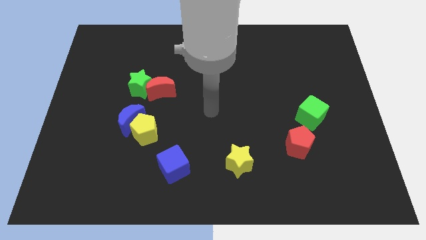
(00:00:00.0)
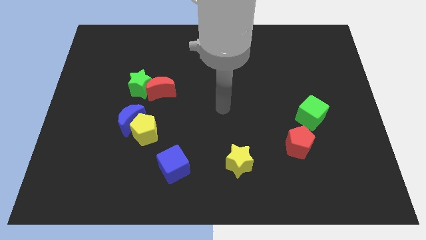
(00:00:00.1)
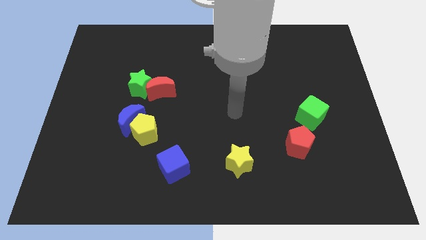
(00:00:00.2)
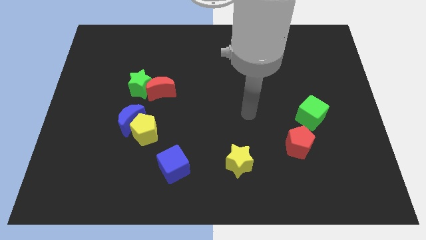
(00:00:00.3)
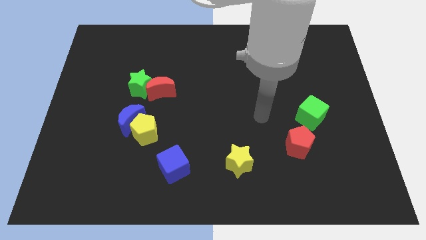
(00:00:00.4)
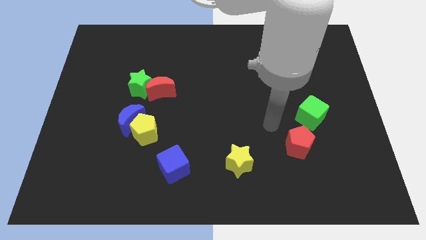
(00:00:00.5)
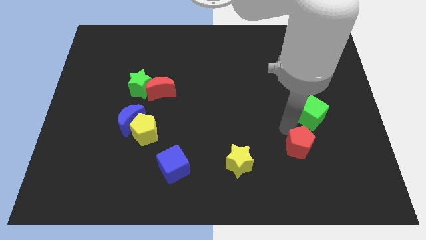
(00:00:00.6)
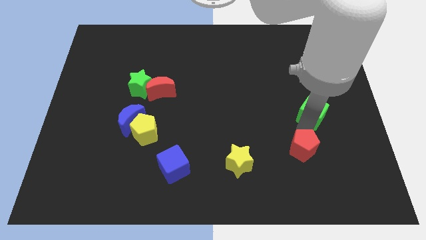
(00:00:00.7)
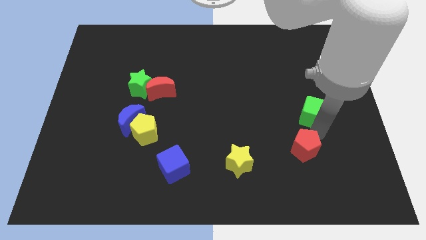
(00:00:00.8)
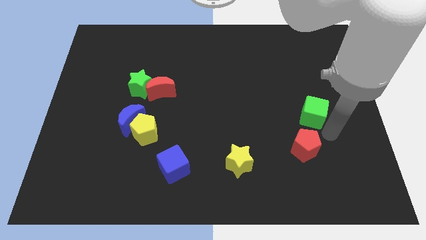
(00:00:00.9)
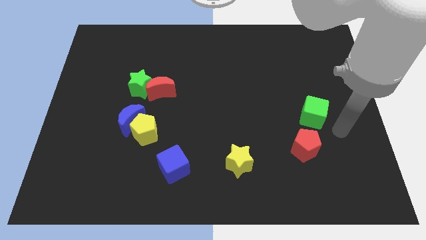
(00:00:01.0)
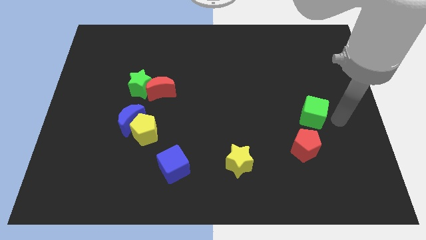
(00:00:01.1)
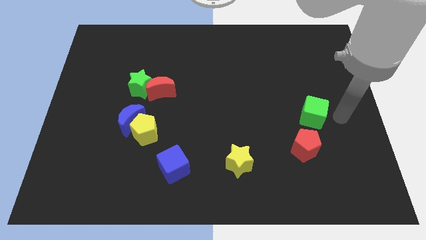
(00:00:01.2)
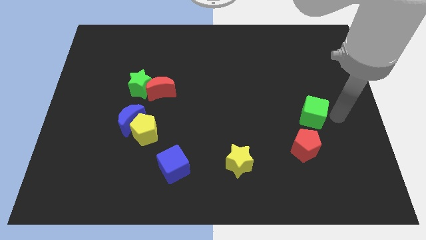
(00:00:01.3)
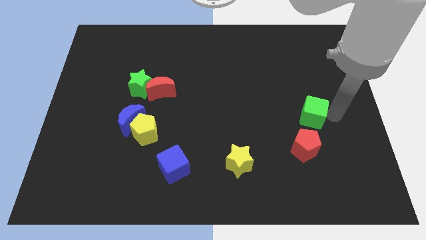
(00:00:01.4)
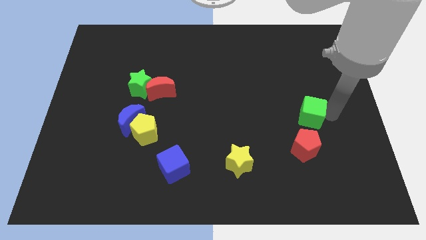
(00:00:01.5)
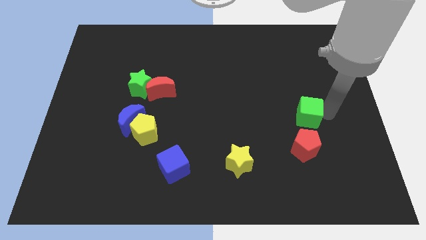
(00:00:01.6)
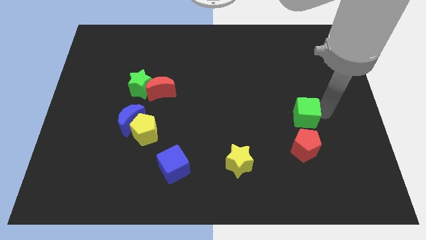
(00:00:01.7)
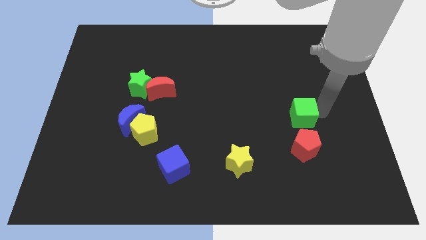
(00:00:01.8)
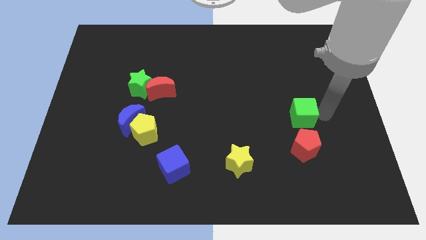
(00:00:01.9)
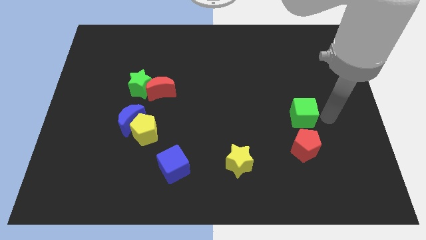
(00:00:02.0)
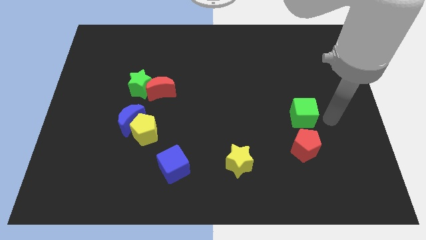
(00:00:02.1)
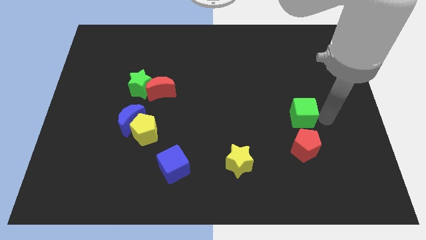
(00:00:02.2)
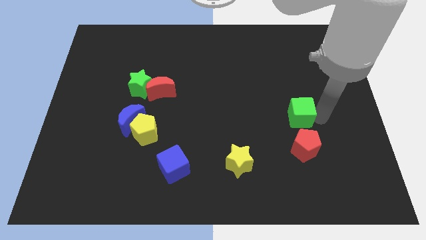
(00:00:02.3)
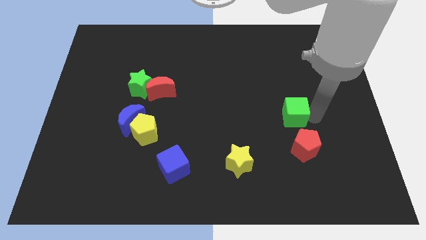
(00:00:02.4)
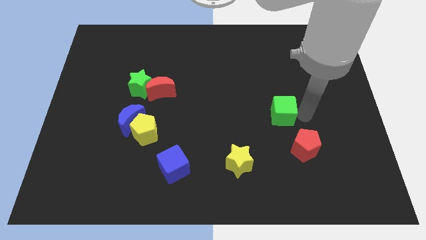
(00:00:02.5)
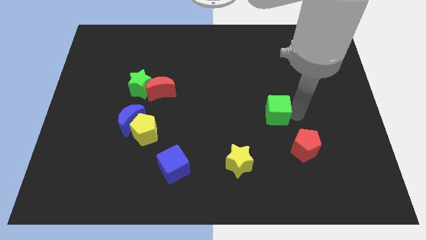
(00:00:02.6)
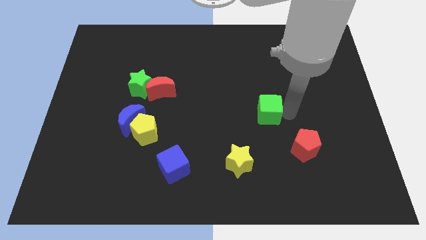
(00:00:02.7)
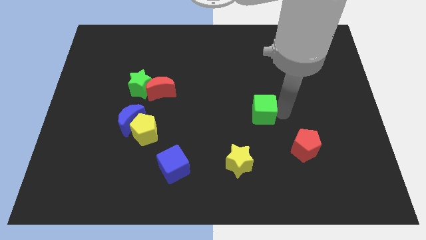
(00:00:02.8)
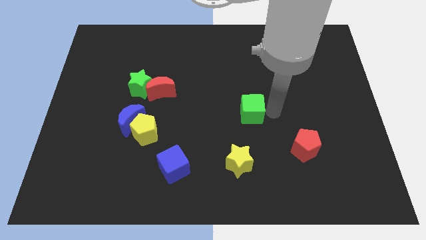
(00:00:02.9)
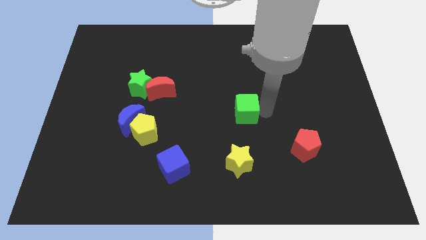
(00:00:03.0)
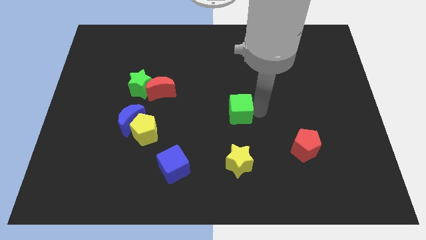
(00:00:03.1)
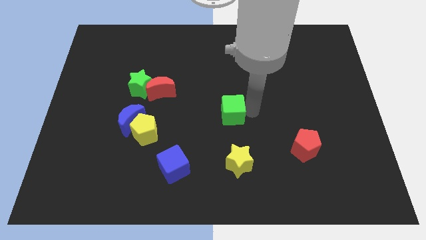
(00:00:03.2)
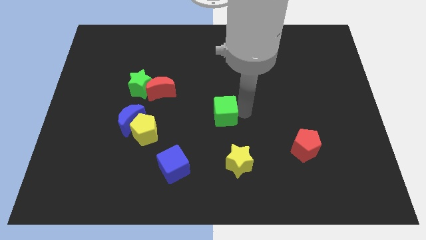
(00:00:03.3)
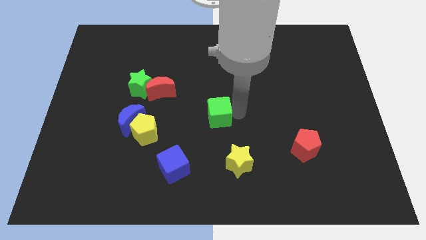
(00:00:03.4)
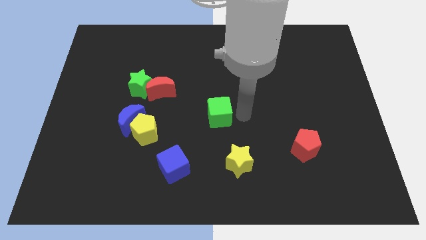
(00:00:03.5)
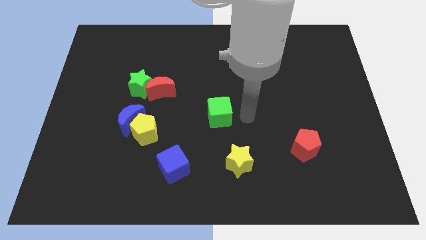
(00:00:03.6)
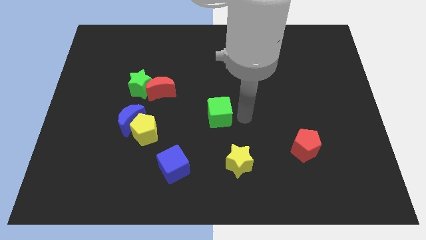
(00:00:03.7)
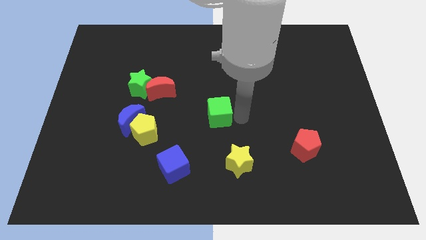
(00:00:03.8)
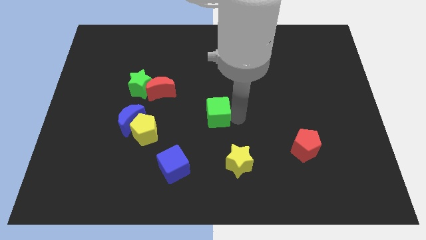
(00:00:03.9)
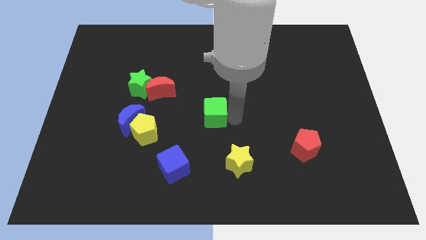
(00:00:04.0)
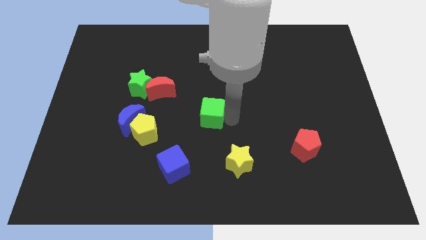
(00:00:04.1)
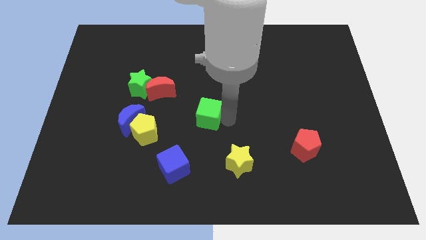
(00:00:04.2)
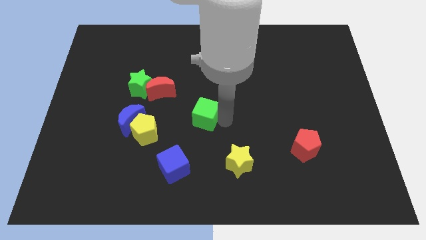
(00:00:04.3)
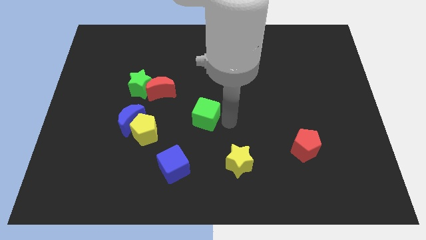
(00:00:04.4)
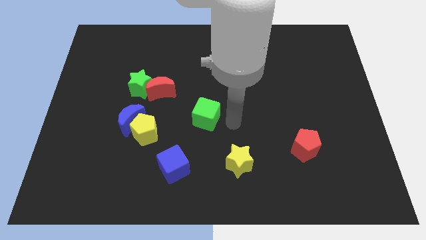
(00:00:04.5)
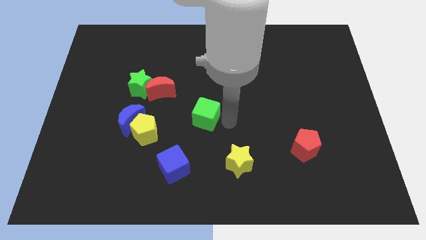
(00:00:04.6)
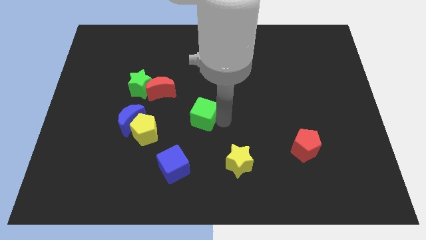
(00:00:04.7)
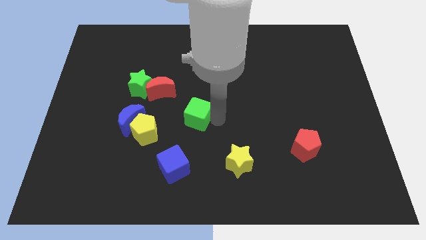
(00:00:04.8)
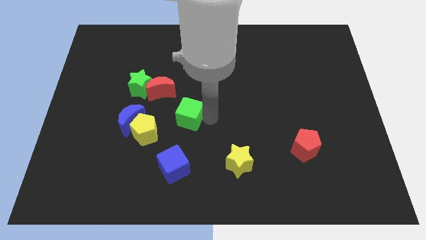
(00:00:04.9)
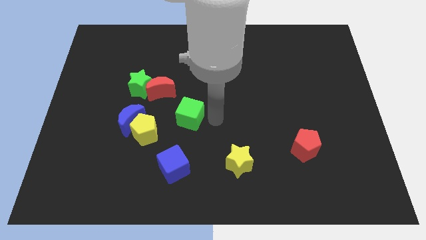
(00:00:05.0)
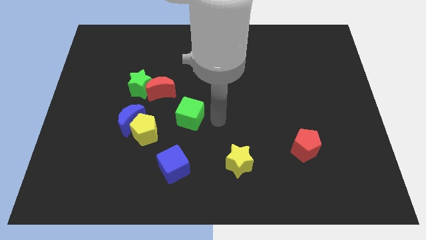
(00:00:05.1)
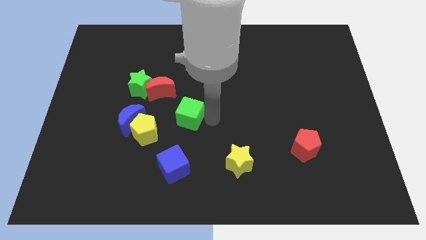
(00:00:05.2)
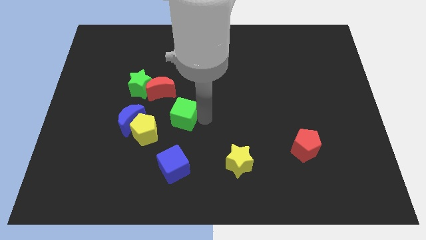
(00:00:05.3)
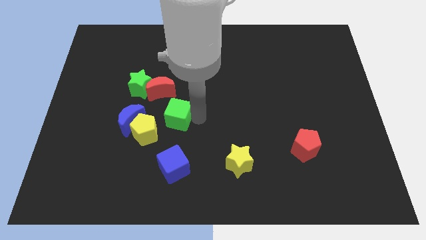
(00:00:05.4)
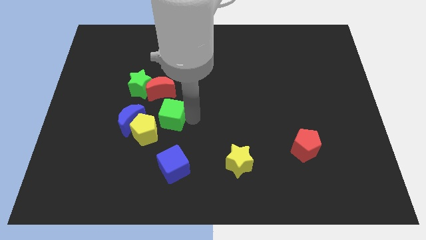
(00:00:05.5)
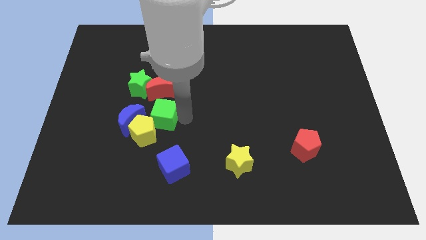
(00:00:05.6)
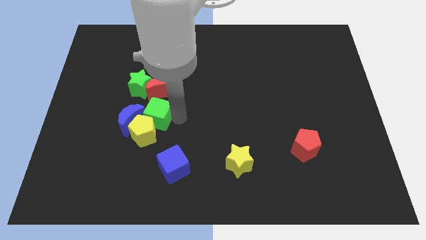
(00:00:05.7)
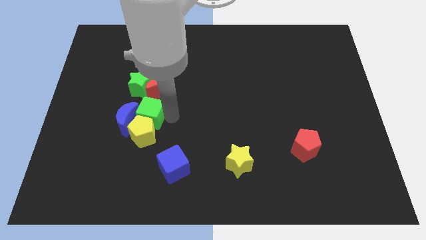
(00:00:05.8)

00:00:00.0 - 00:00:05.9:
move the green cube towards the blue moon

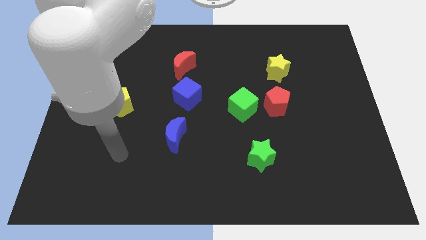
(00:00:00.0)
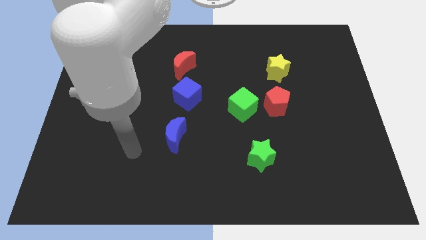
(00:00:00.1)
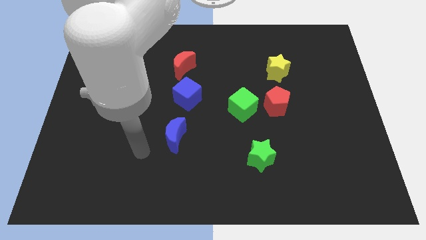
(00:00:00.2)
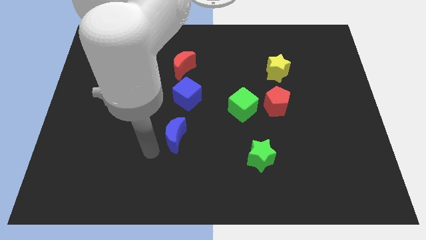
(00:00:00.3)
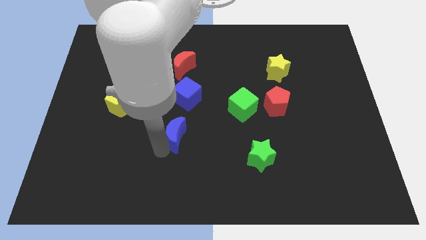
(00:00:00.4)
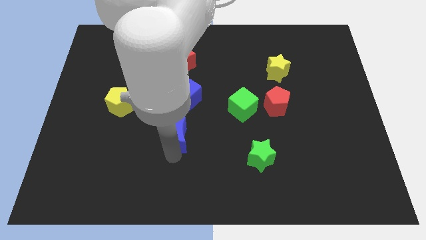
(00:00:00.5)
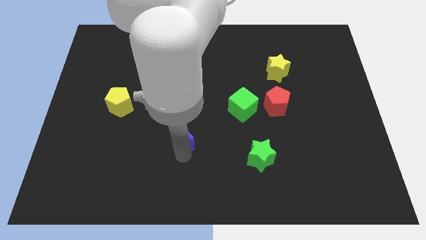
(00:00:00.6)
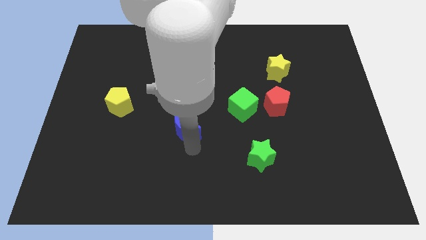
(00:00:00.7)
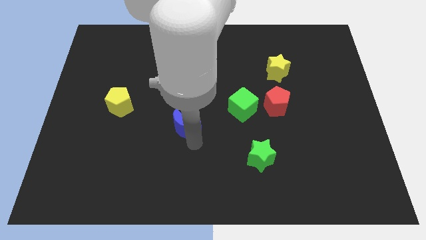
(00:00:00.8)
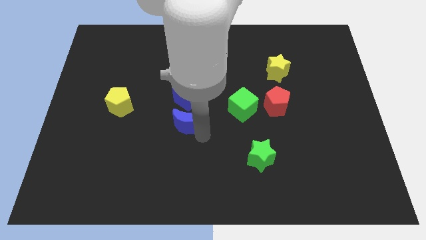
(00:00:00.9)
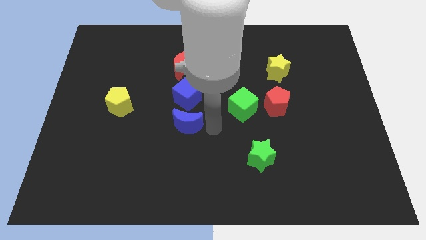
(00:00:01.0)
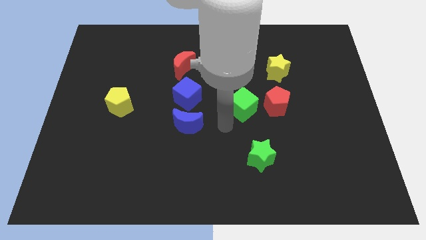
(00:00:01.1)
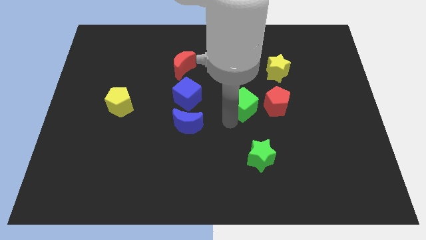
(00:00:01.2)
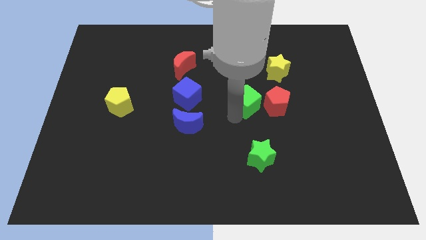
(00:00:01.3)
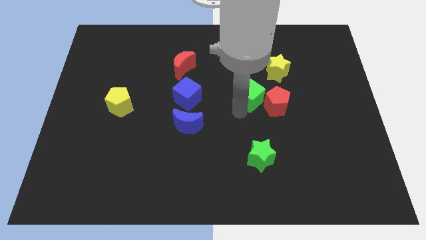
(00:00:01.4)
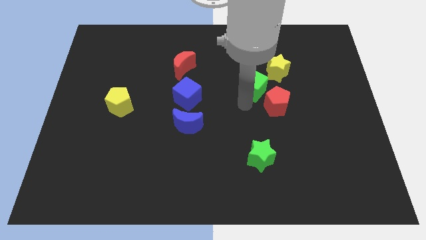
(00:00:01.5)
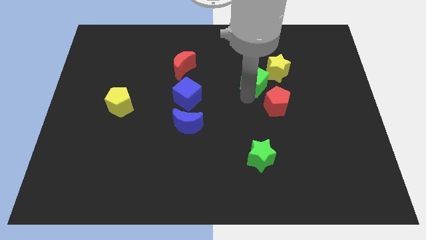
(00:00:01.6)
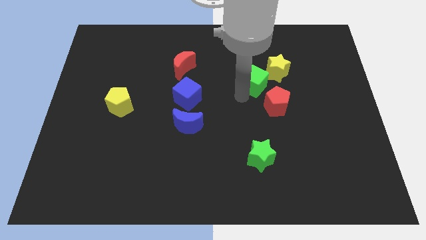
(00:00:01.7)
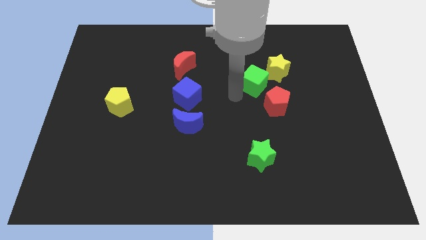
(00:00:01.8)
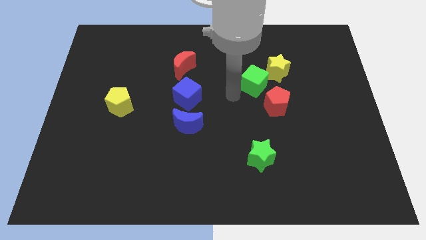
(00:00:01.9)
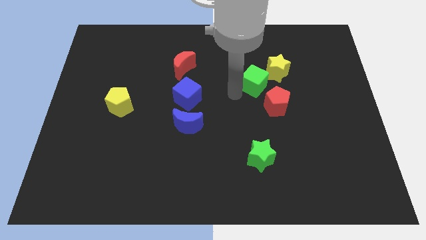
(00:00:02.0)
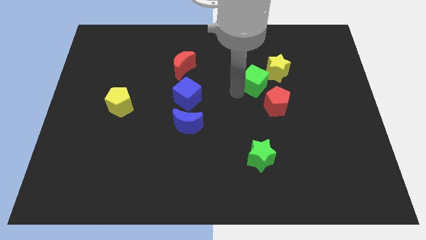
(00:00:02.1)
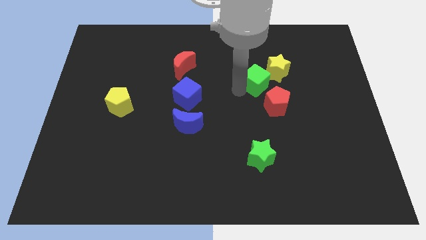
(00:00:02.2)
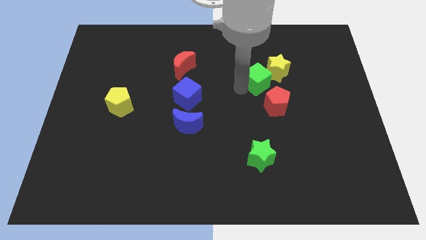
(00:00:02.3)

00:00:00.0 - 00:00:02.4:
slide the green cube towards the yellow star

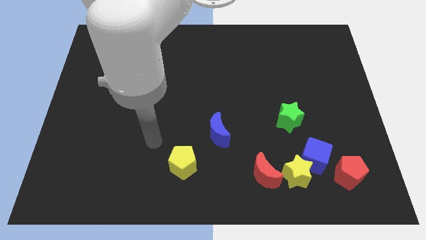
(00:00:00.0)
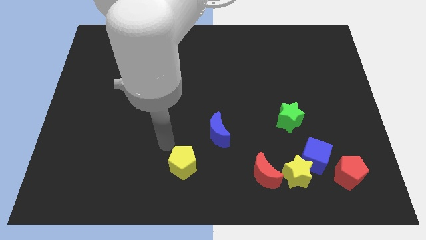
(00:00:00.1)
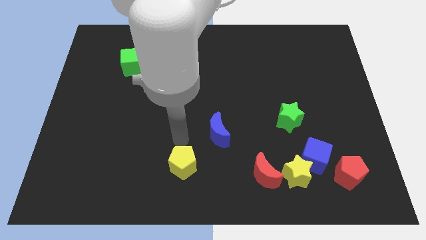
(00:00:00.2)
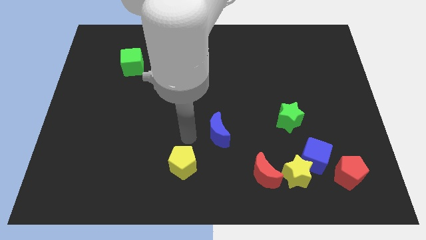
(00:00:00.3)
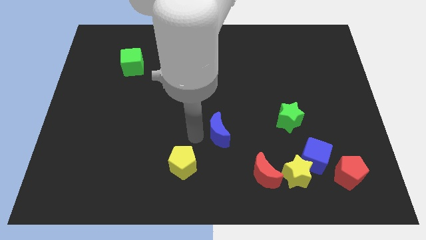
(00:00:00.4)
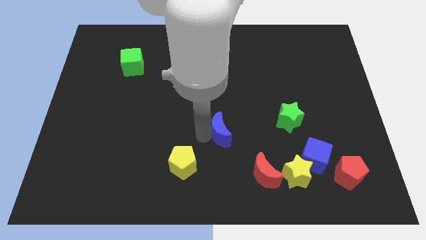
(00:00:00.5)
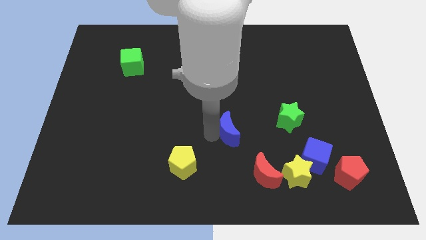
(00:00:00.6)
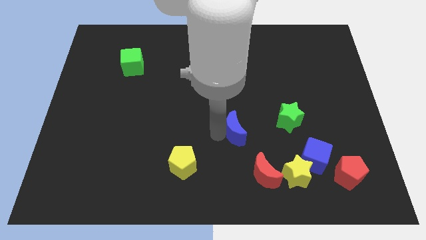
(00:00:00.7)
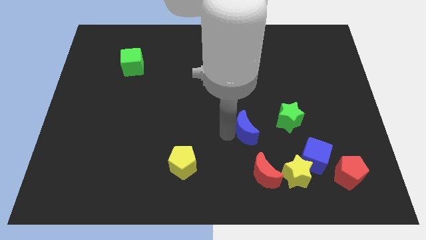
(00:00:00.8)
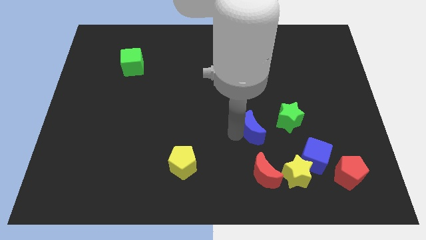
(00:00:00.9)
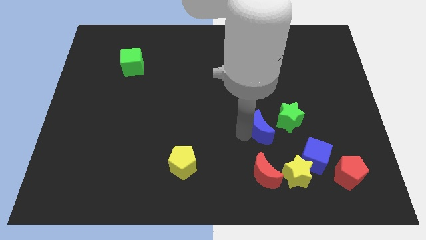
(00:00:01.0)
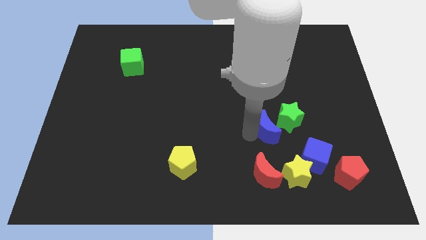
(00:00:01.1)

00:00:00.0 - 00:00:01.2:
move the blue moon close to the green star
